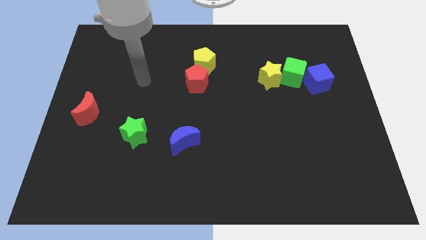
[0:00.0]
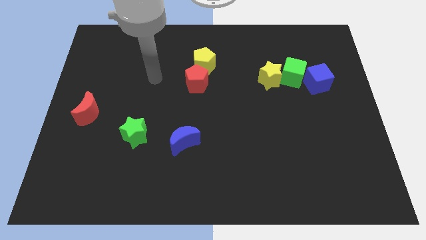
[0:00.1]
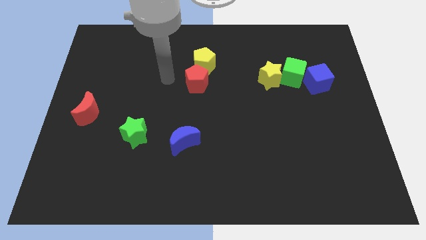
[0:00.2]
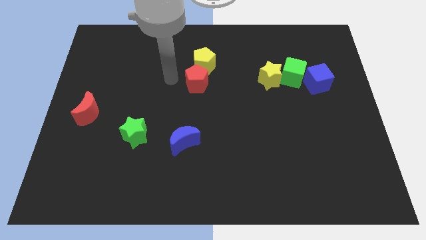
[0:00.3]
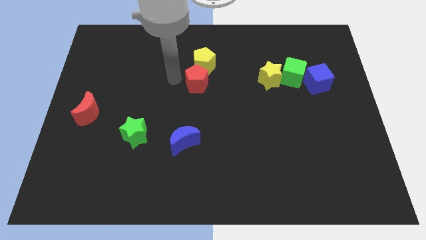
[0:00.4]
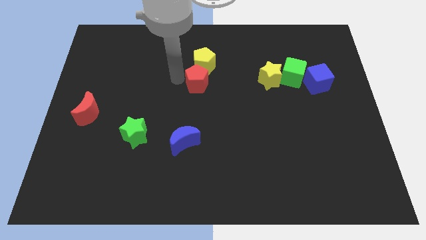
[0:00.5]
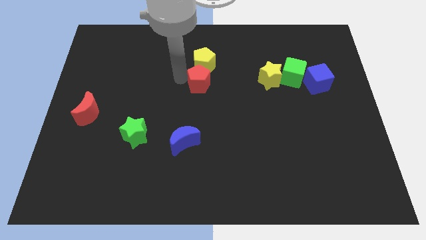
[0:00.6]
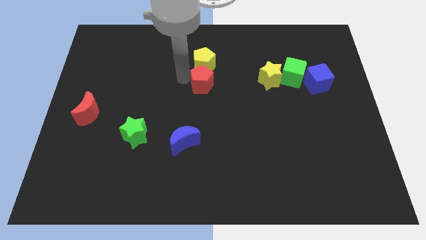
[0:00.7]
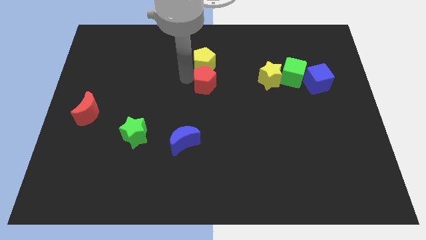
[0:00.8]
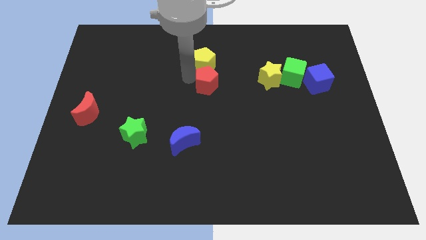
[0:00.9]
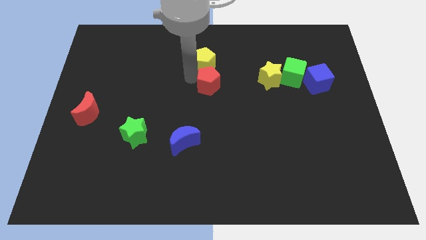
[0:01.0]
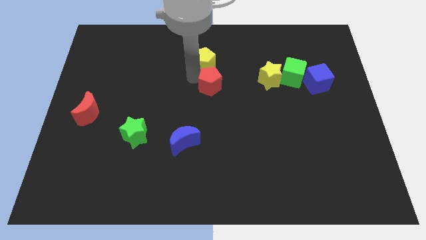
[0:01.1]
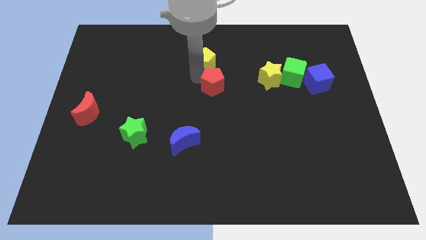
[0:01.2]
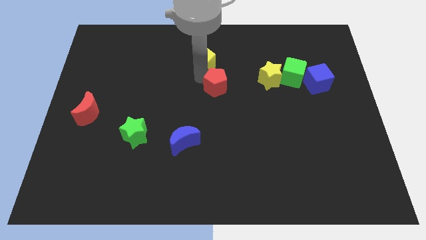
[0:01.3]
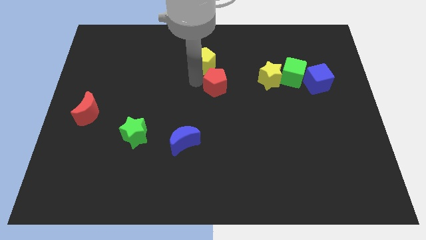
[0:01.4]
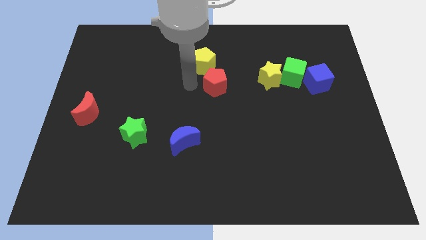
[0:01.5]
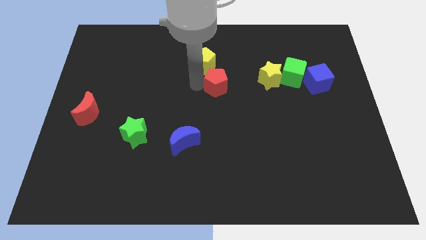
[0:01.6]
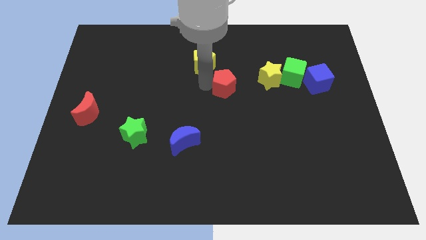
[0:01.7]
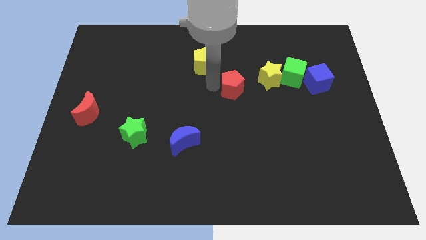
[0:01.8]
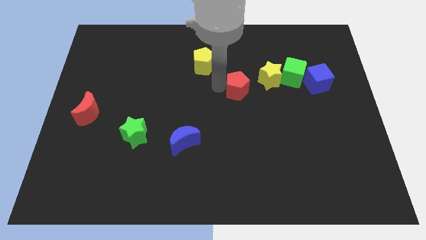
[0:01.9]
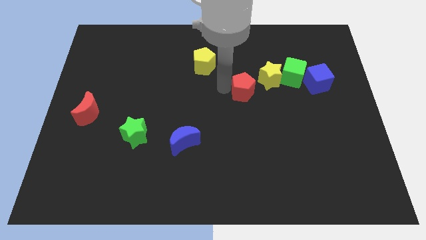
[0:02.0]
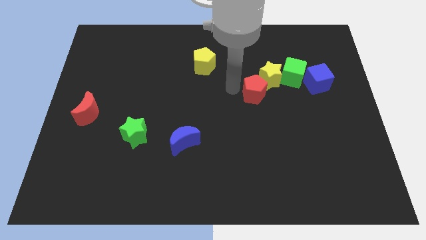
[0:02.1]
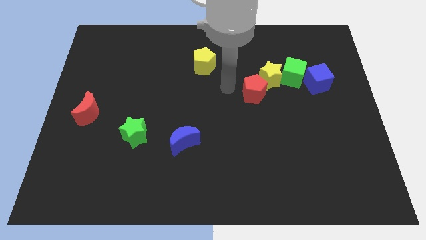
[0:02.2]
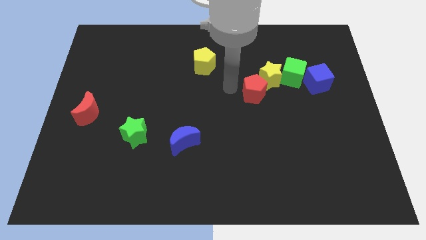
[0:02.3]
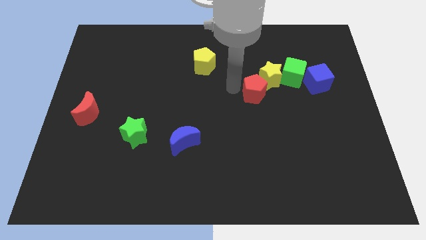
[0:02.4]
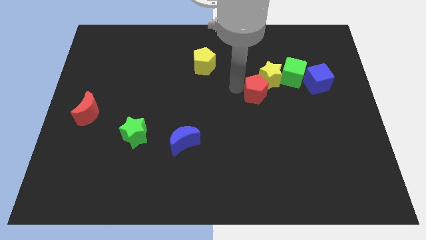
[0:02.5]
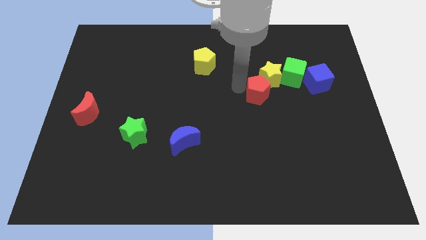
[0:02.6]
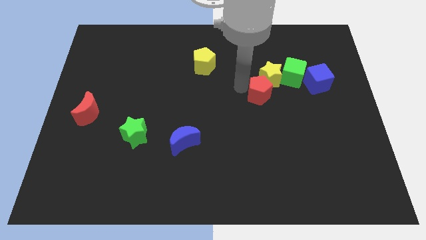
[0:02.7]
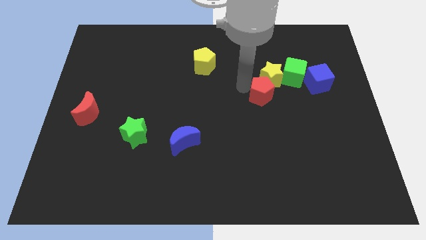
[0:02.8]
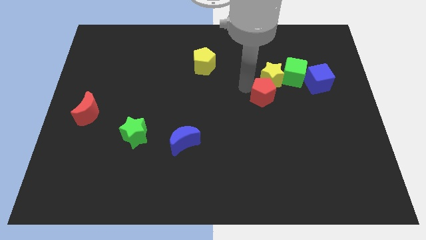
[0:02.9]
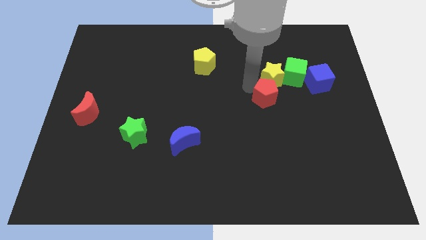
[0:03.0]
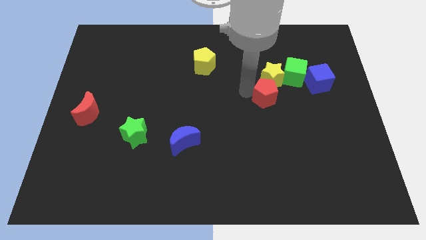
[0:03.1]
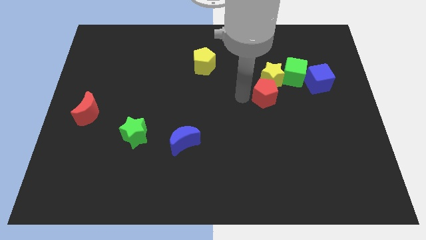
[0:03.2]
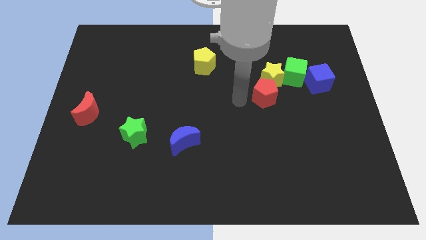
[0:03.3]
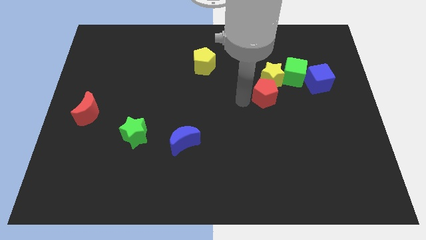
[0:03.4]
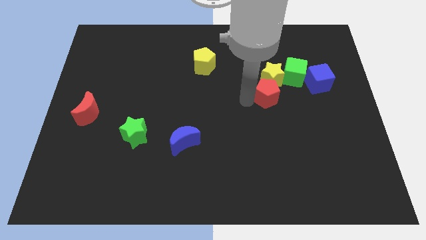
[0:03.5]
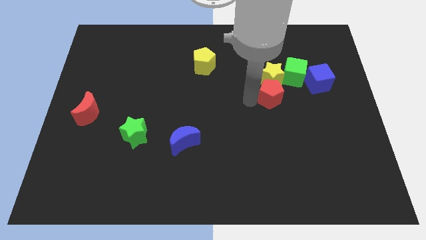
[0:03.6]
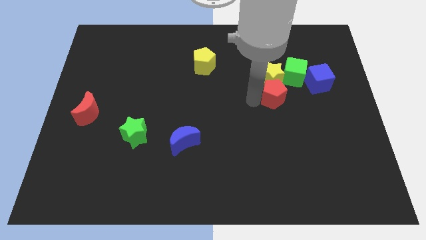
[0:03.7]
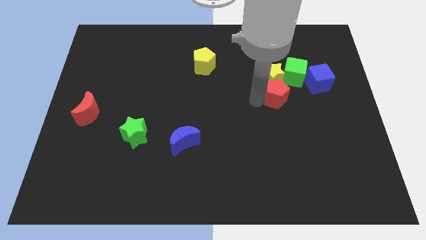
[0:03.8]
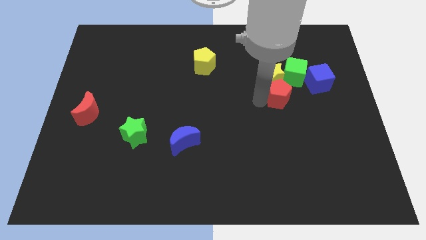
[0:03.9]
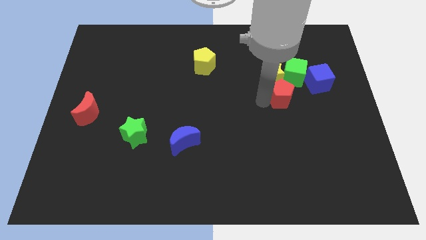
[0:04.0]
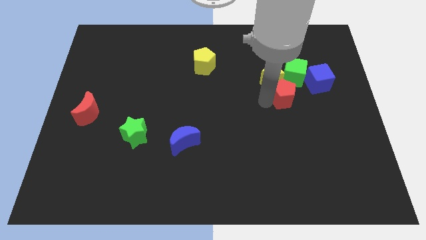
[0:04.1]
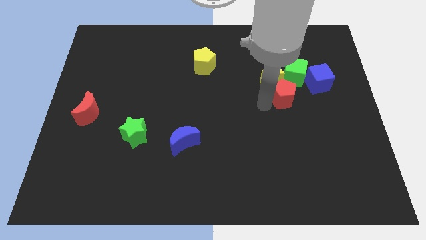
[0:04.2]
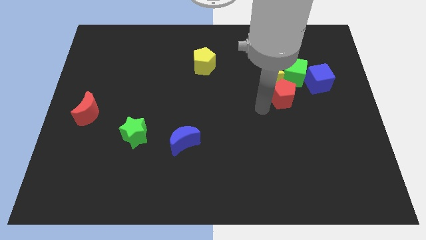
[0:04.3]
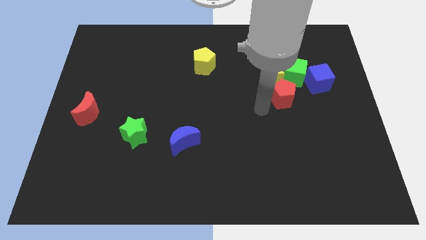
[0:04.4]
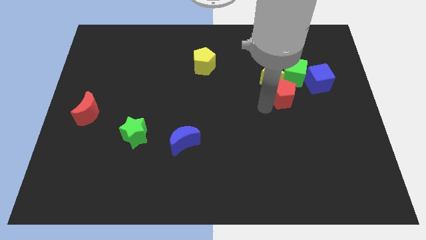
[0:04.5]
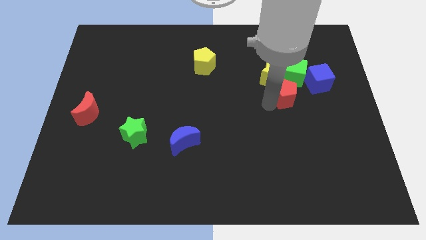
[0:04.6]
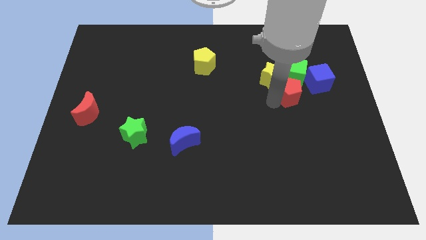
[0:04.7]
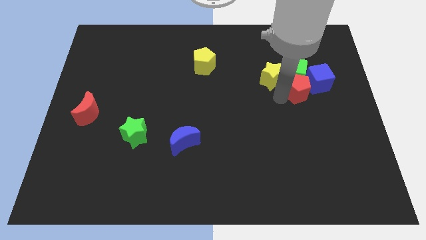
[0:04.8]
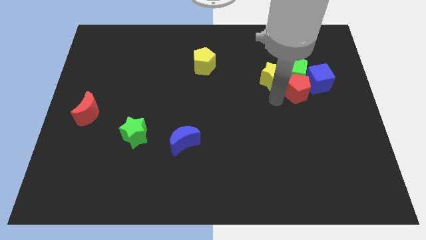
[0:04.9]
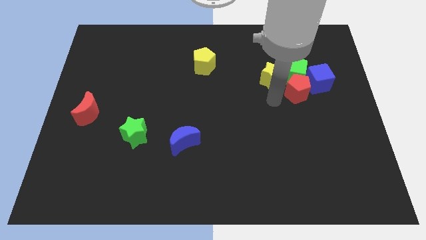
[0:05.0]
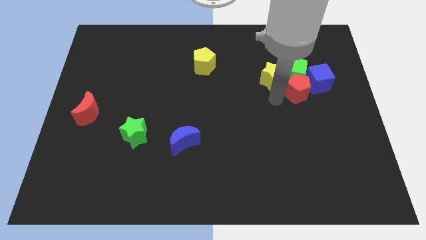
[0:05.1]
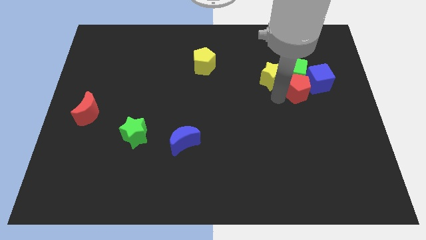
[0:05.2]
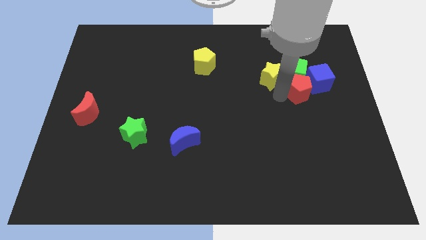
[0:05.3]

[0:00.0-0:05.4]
slide the red pentagon close to the blue cube

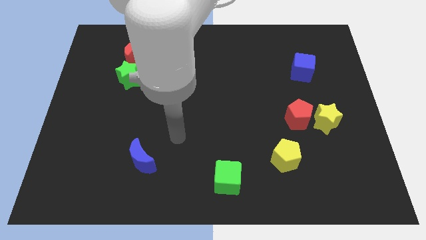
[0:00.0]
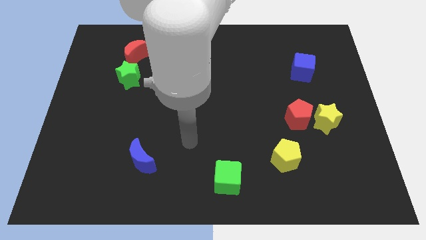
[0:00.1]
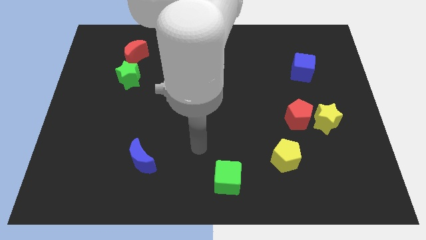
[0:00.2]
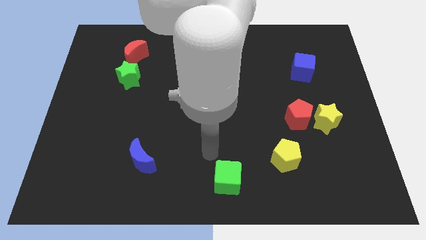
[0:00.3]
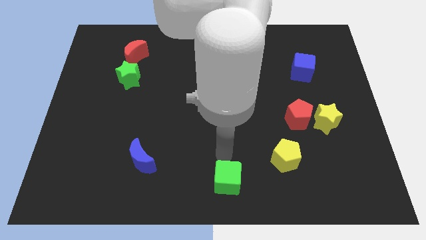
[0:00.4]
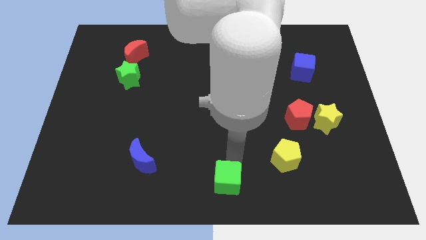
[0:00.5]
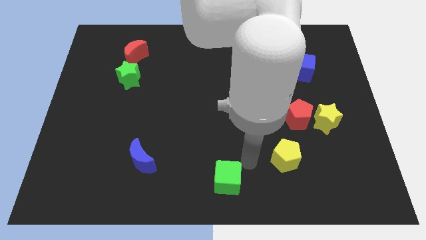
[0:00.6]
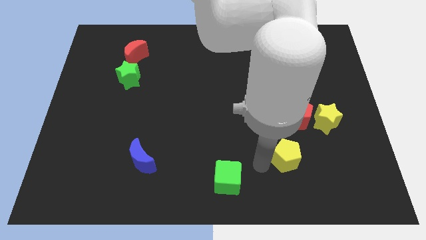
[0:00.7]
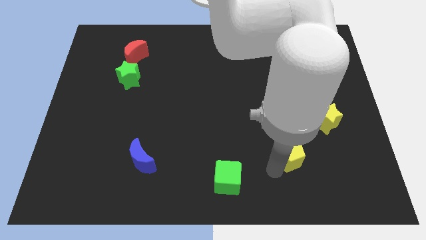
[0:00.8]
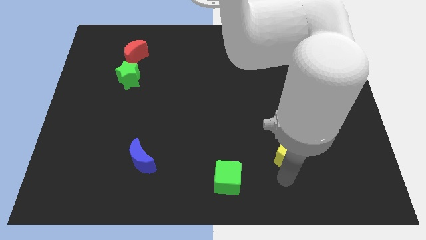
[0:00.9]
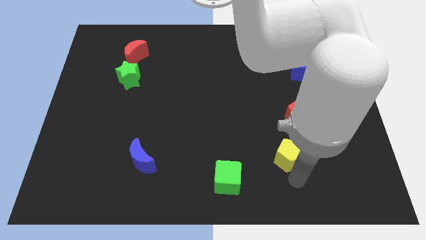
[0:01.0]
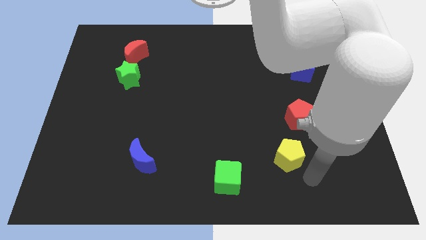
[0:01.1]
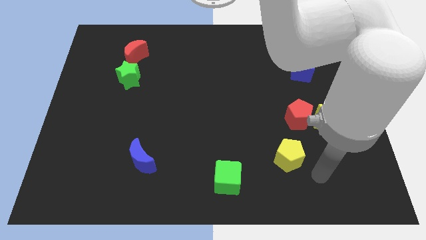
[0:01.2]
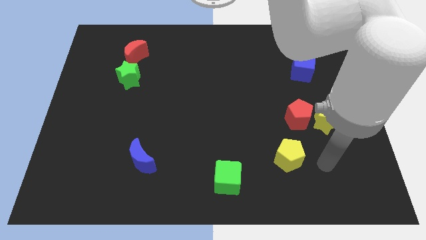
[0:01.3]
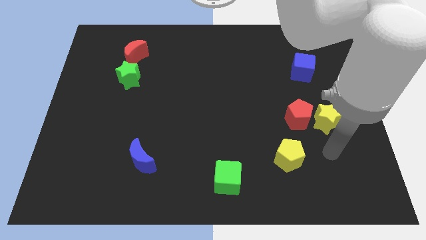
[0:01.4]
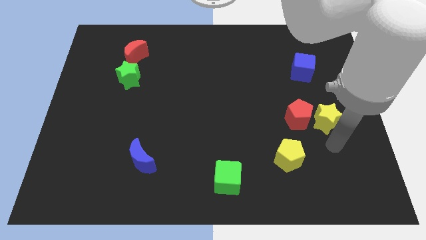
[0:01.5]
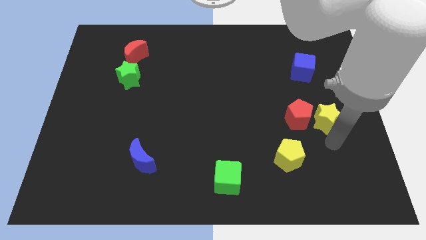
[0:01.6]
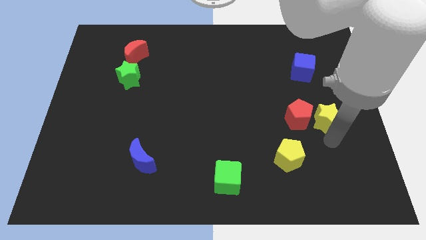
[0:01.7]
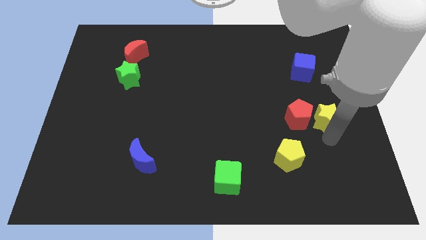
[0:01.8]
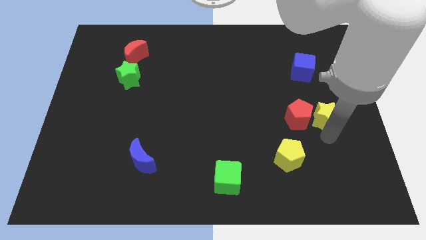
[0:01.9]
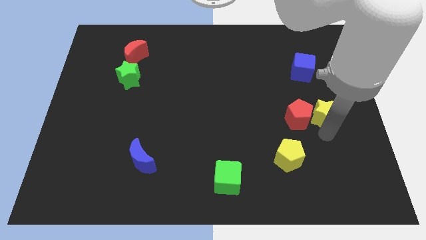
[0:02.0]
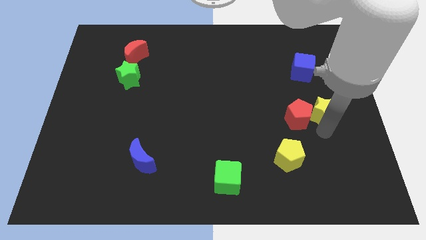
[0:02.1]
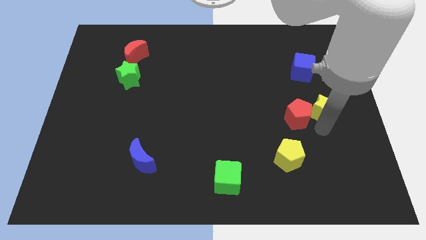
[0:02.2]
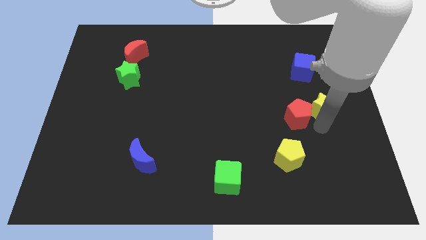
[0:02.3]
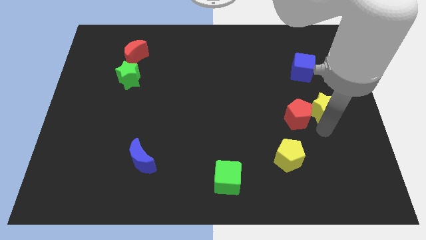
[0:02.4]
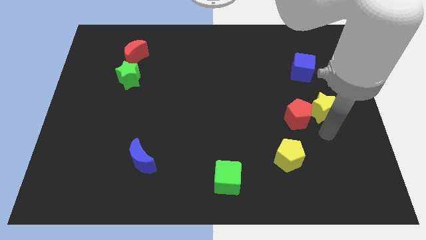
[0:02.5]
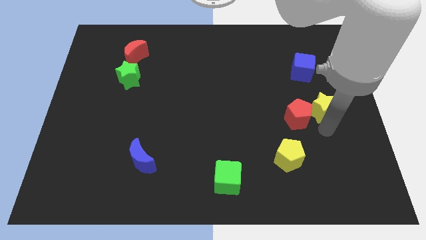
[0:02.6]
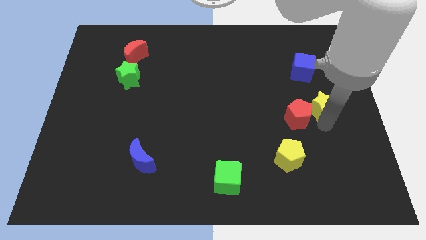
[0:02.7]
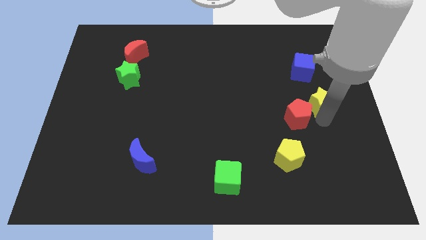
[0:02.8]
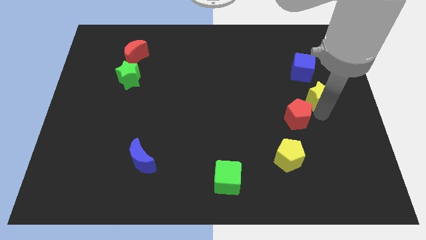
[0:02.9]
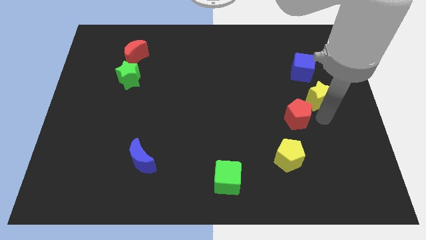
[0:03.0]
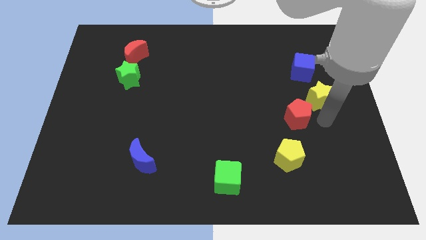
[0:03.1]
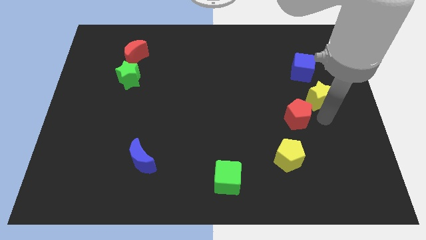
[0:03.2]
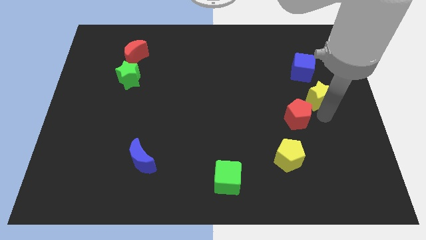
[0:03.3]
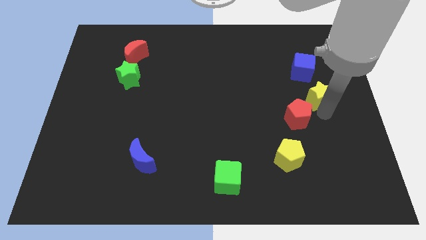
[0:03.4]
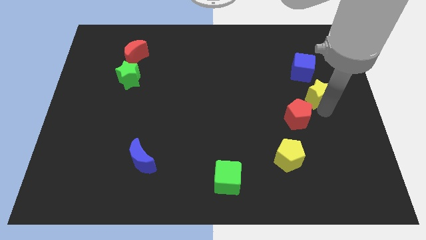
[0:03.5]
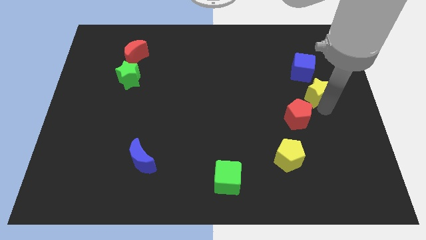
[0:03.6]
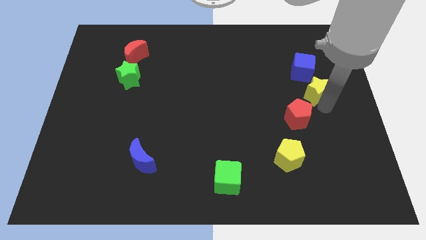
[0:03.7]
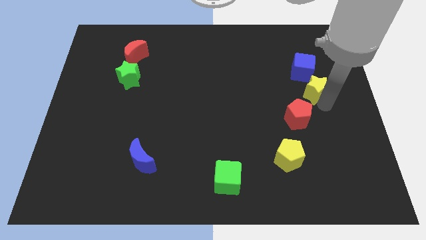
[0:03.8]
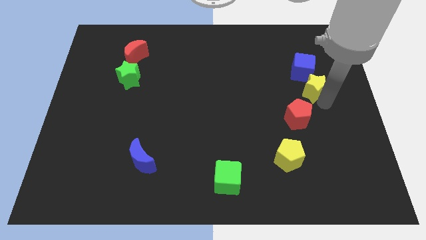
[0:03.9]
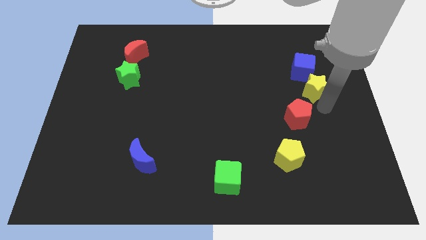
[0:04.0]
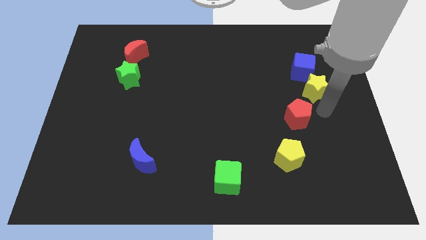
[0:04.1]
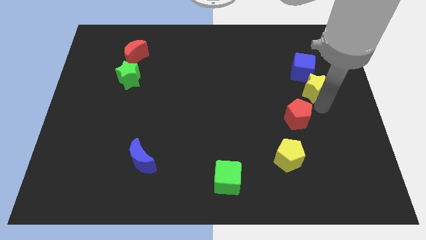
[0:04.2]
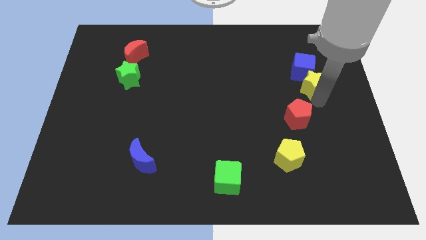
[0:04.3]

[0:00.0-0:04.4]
put the yellow star close to the blue cube
